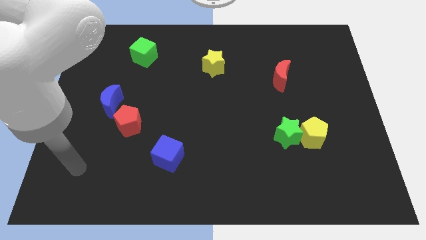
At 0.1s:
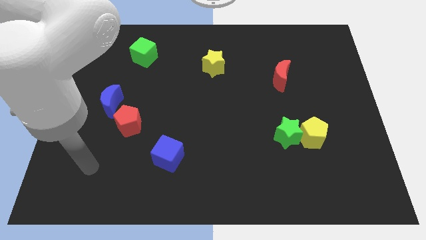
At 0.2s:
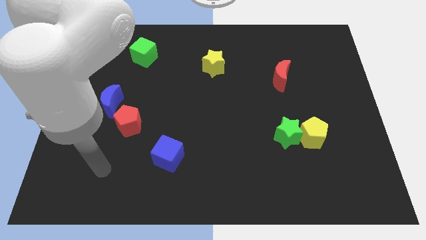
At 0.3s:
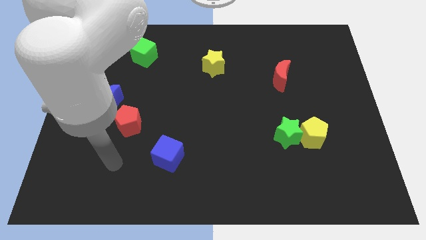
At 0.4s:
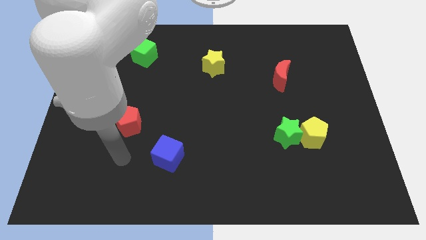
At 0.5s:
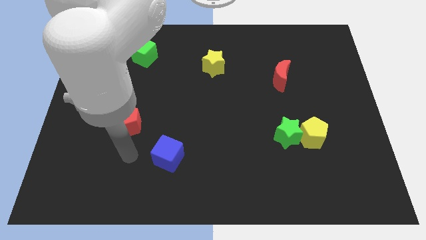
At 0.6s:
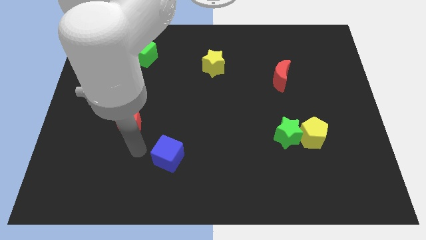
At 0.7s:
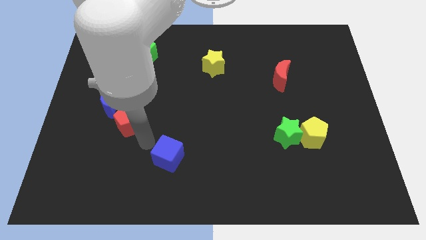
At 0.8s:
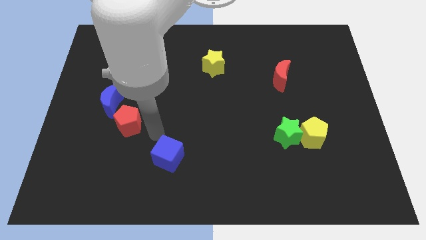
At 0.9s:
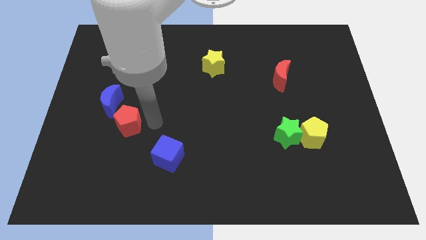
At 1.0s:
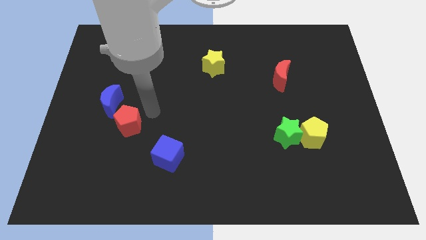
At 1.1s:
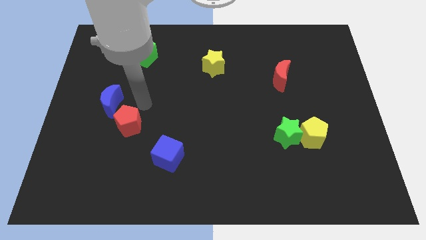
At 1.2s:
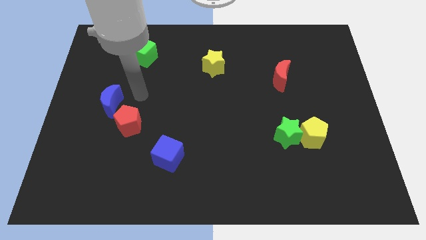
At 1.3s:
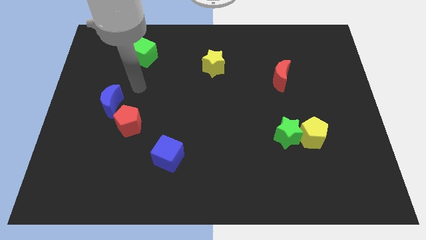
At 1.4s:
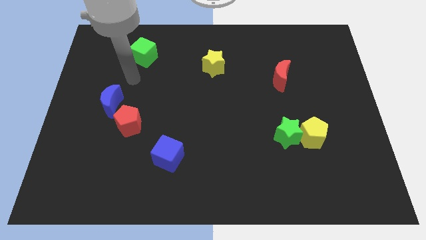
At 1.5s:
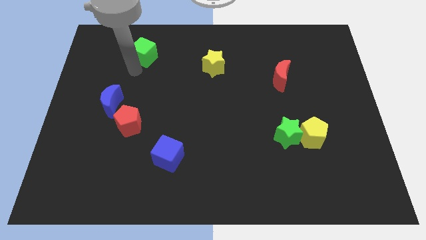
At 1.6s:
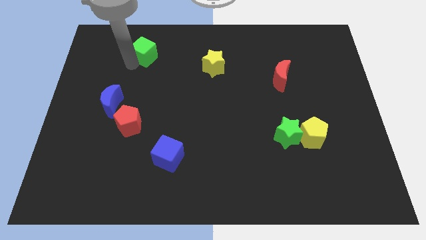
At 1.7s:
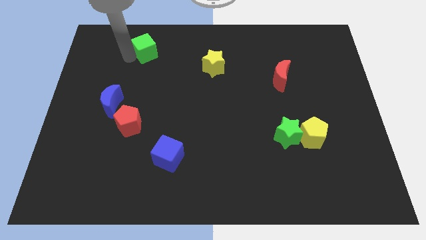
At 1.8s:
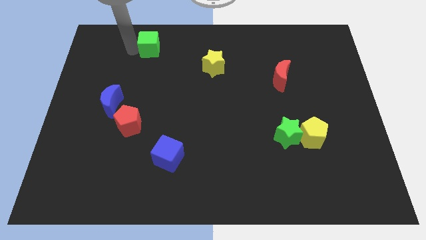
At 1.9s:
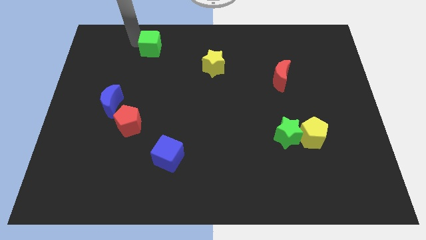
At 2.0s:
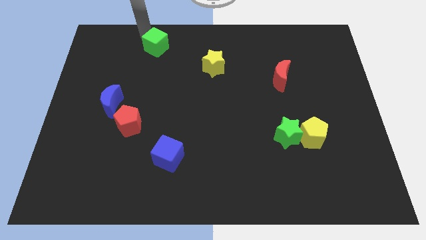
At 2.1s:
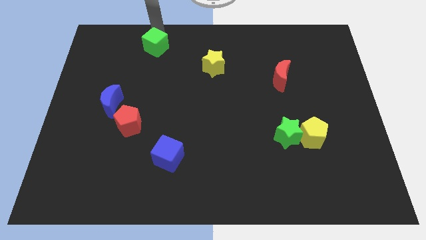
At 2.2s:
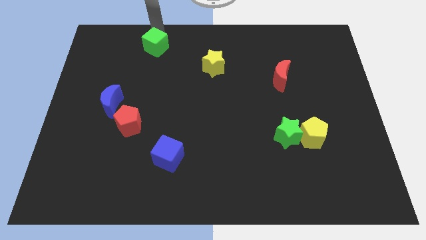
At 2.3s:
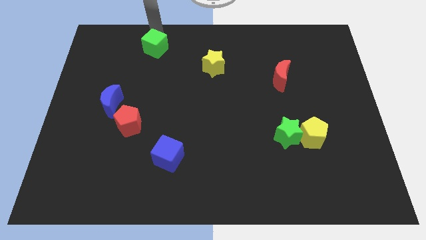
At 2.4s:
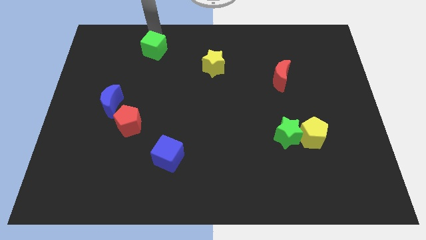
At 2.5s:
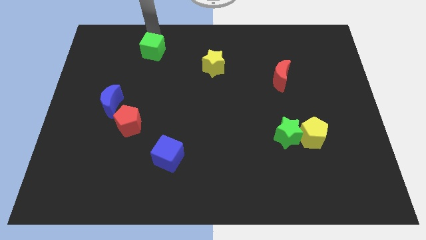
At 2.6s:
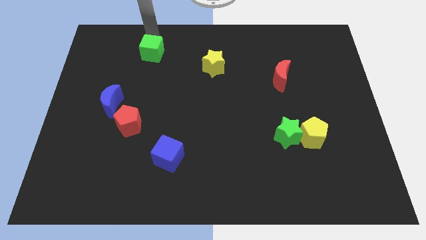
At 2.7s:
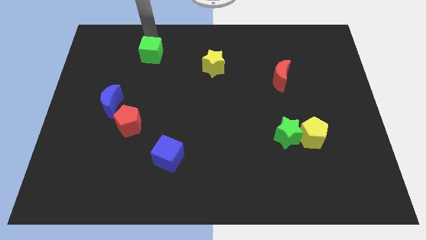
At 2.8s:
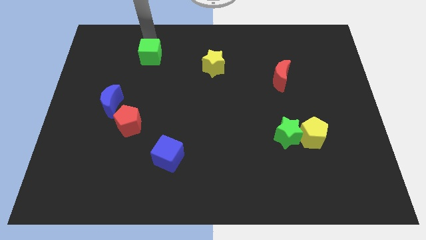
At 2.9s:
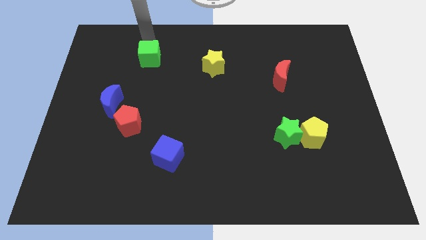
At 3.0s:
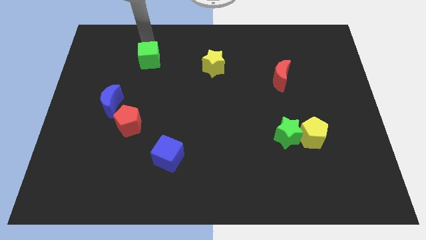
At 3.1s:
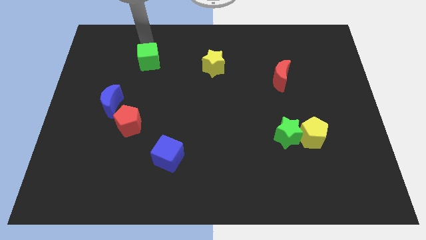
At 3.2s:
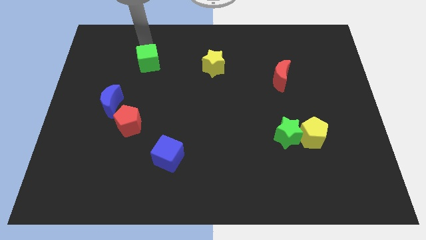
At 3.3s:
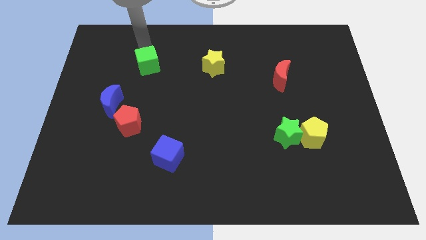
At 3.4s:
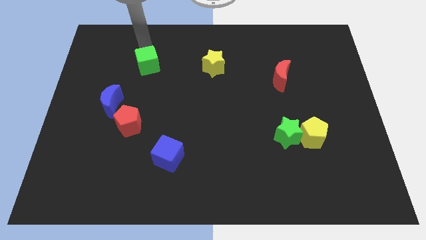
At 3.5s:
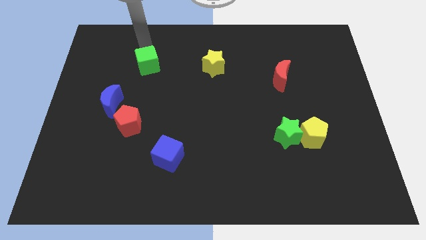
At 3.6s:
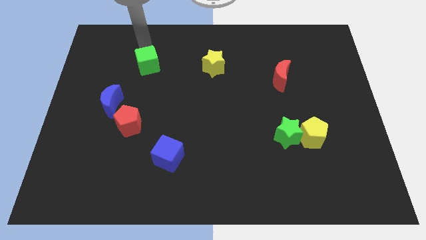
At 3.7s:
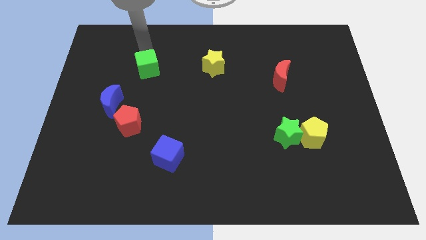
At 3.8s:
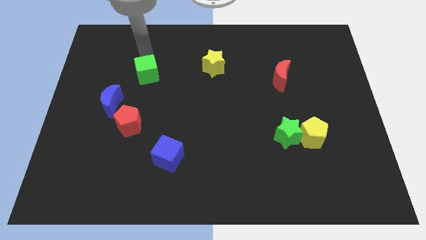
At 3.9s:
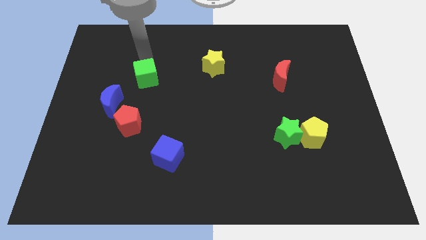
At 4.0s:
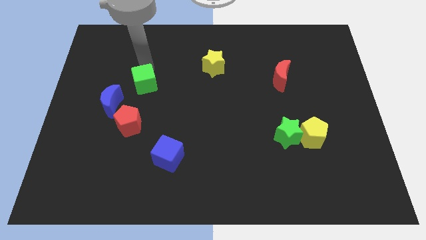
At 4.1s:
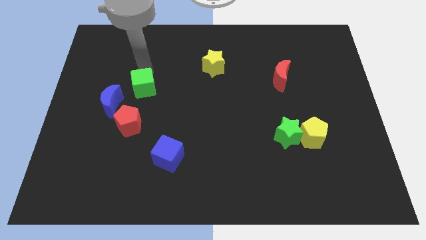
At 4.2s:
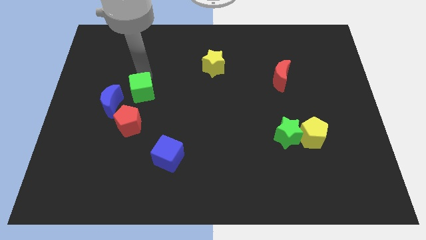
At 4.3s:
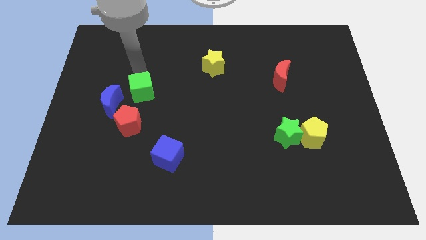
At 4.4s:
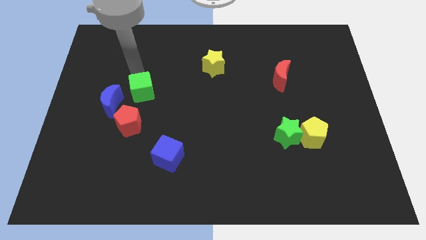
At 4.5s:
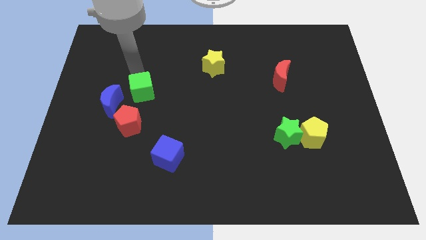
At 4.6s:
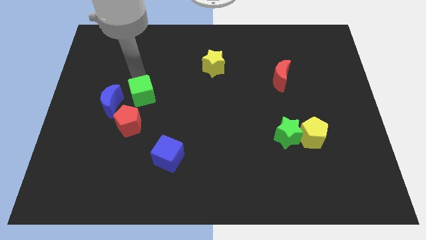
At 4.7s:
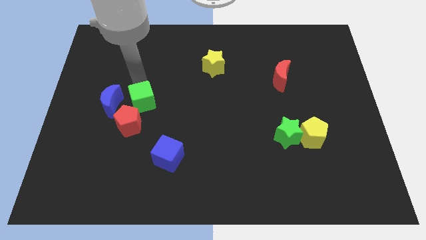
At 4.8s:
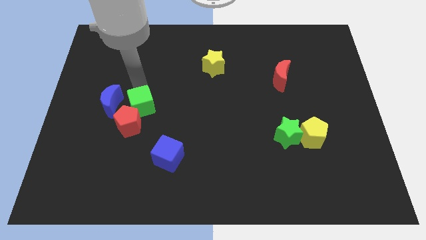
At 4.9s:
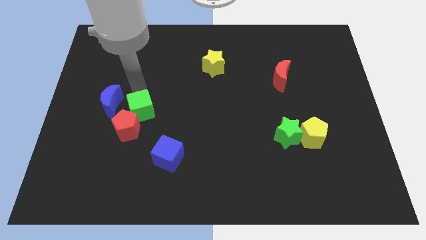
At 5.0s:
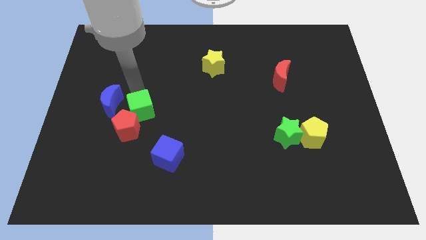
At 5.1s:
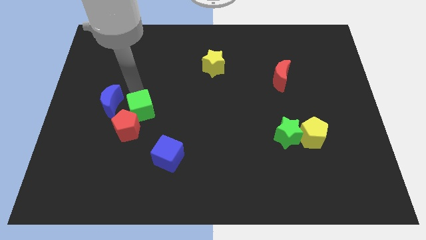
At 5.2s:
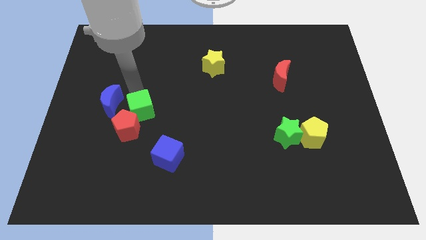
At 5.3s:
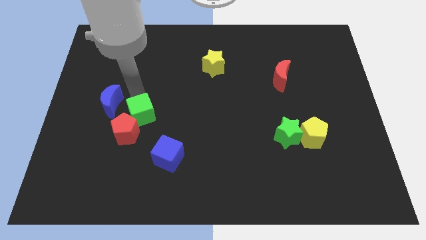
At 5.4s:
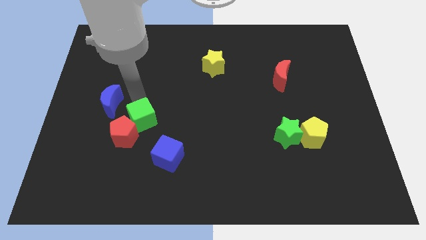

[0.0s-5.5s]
push the green cube downwards

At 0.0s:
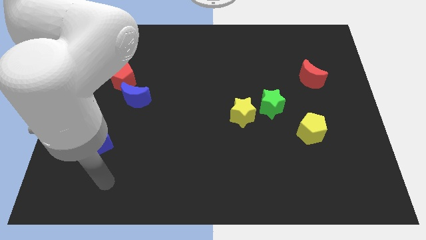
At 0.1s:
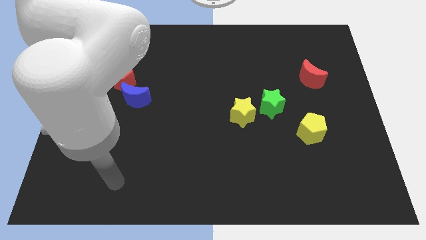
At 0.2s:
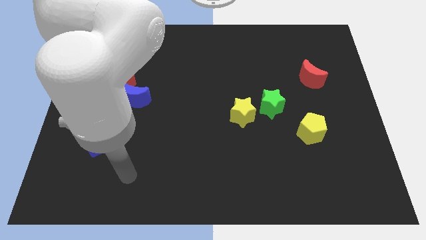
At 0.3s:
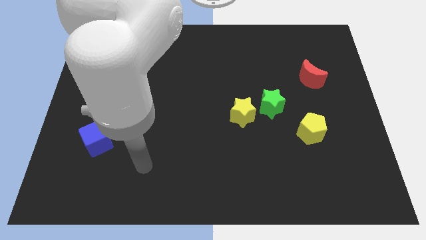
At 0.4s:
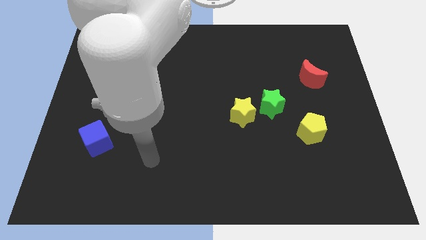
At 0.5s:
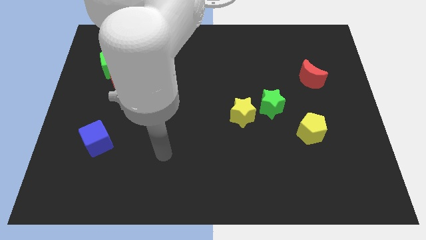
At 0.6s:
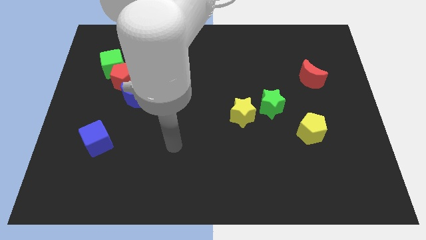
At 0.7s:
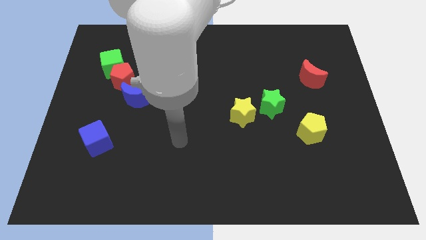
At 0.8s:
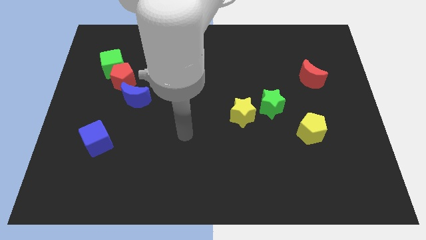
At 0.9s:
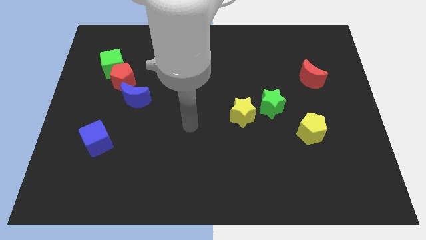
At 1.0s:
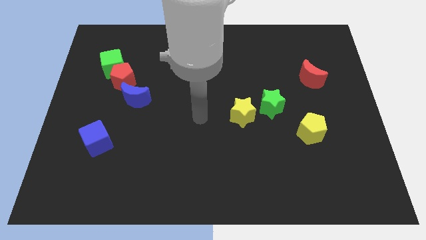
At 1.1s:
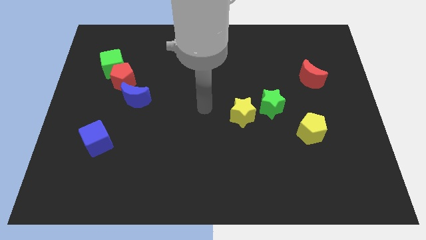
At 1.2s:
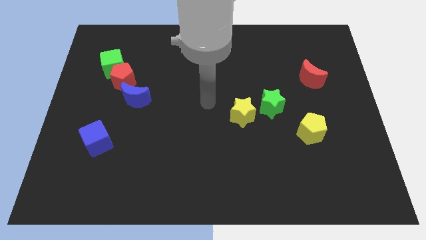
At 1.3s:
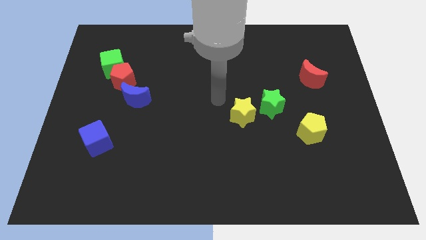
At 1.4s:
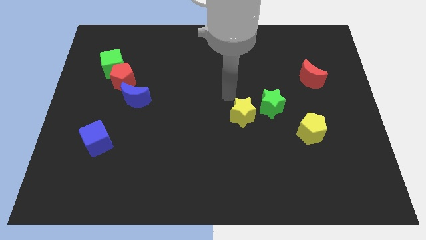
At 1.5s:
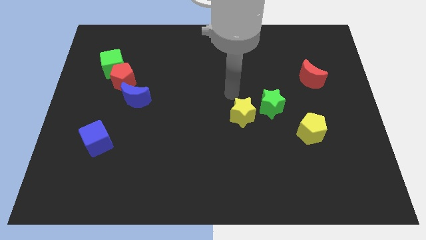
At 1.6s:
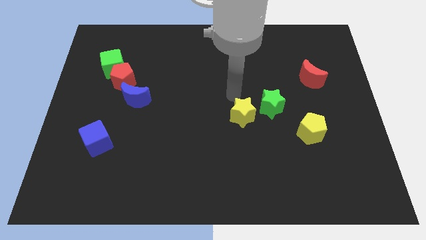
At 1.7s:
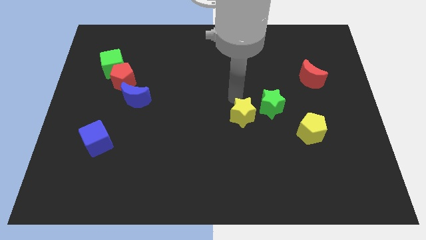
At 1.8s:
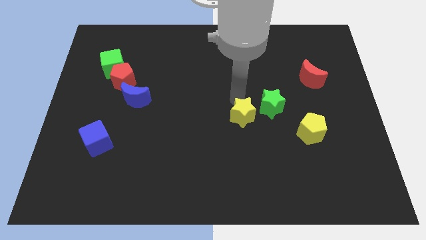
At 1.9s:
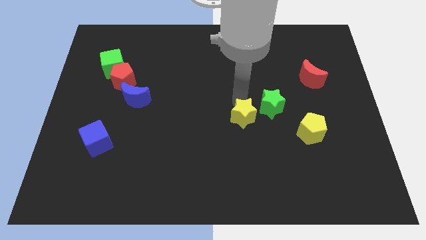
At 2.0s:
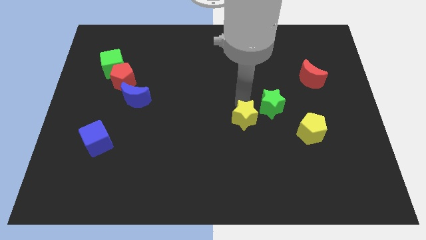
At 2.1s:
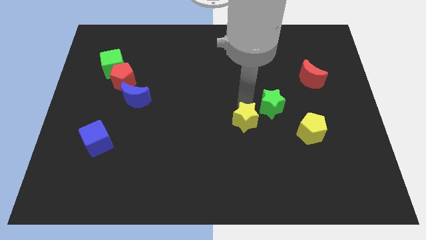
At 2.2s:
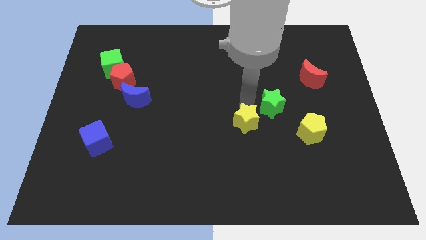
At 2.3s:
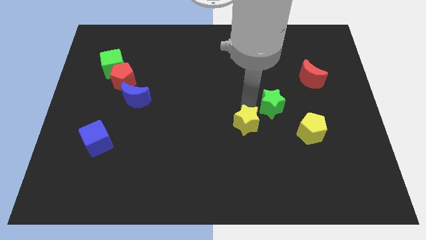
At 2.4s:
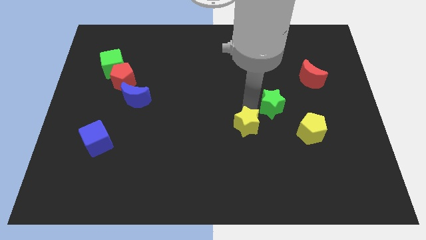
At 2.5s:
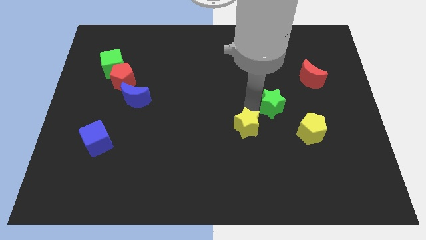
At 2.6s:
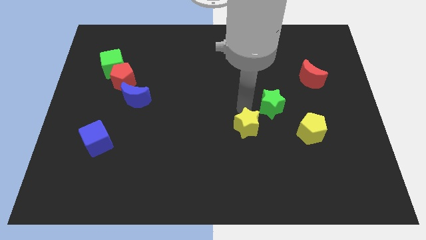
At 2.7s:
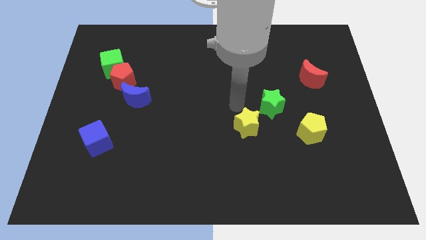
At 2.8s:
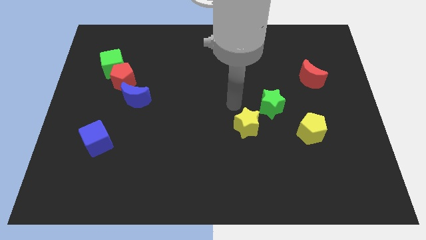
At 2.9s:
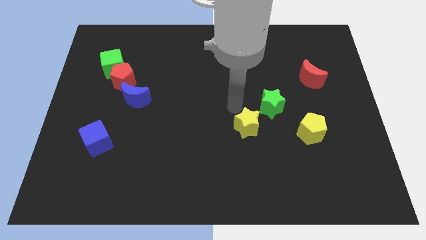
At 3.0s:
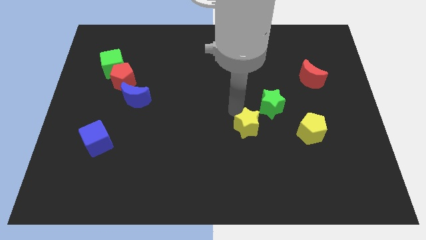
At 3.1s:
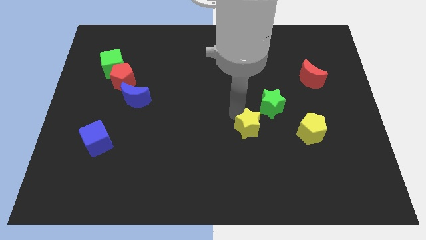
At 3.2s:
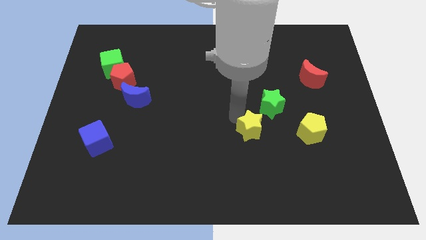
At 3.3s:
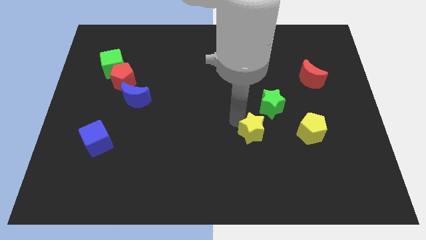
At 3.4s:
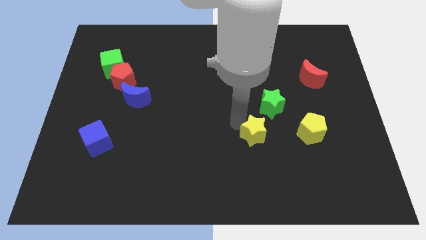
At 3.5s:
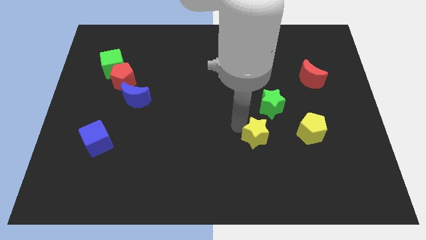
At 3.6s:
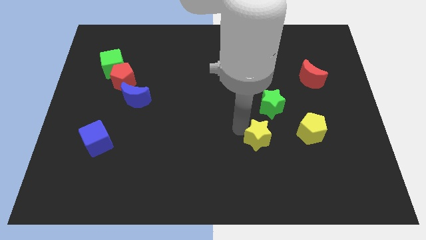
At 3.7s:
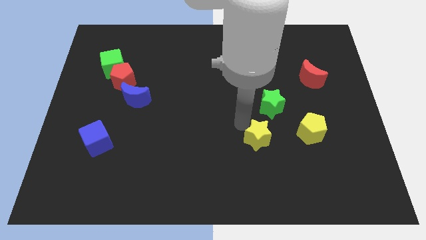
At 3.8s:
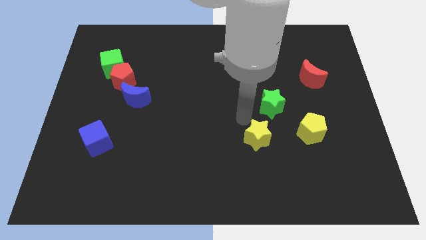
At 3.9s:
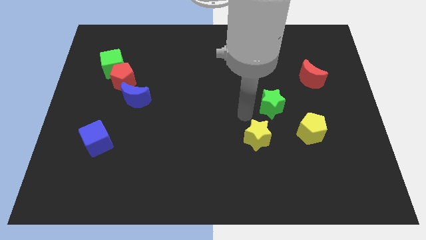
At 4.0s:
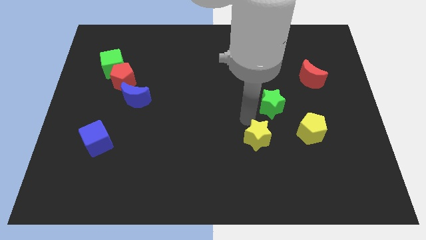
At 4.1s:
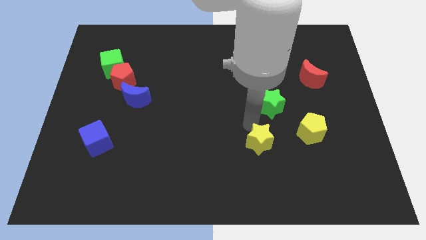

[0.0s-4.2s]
move the yellow star down and to the right a little bit
